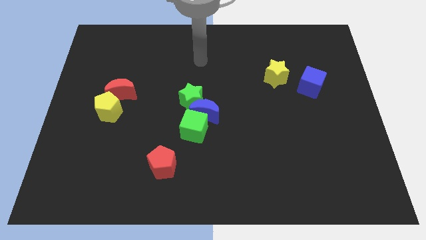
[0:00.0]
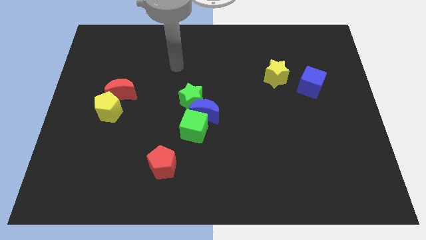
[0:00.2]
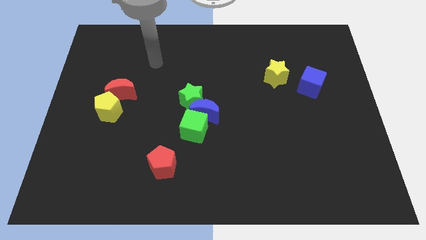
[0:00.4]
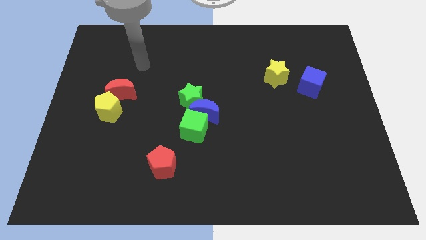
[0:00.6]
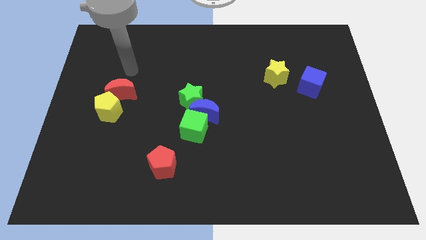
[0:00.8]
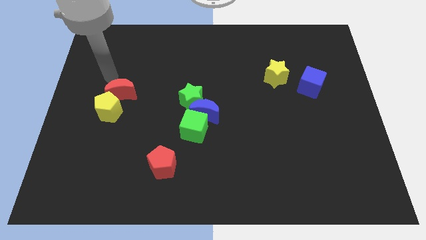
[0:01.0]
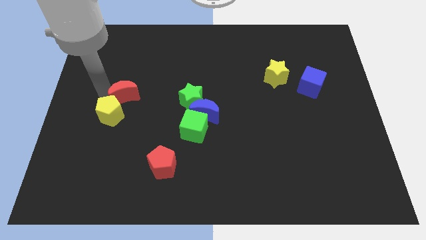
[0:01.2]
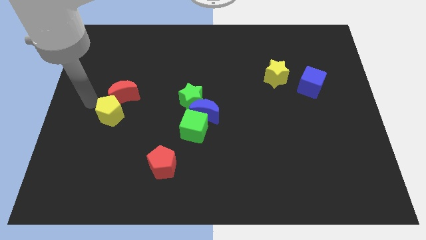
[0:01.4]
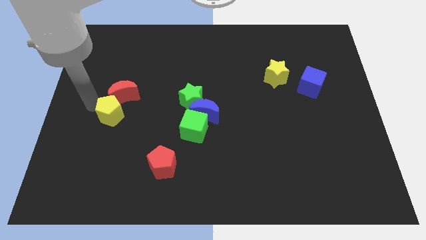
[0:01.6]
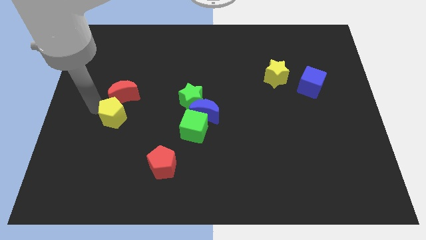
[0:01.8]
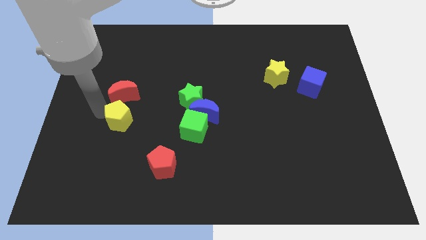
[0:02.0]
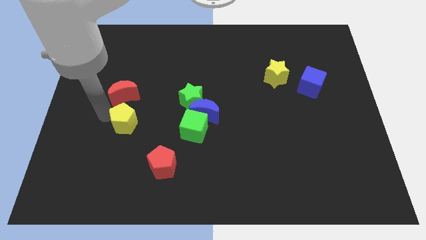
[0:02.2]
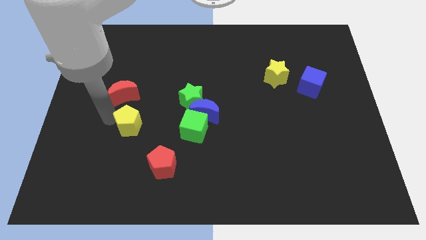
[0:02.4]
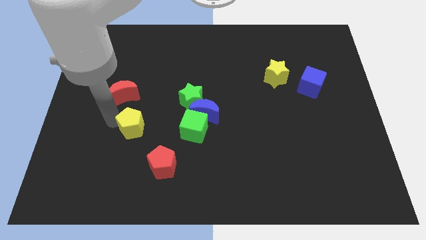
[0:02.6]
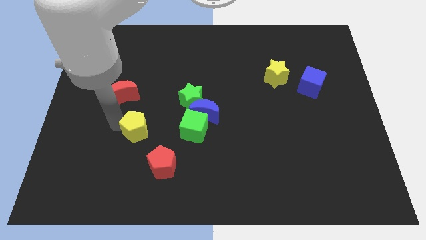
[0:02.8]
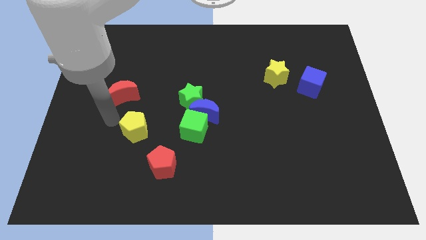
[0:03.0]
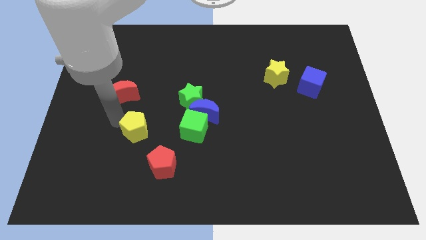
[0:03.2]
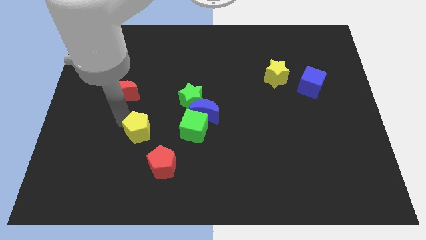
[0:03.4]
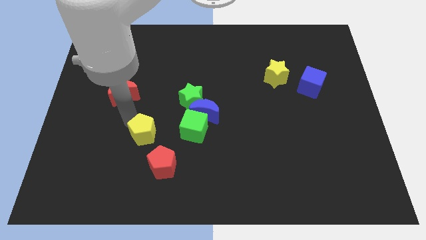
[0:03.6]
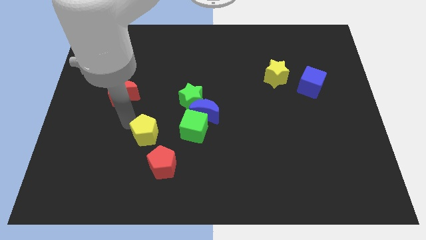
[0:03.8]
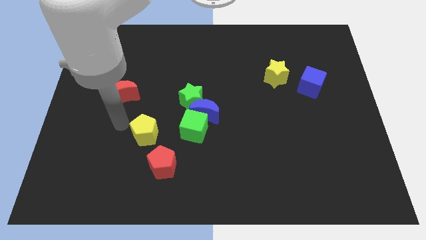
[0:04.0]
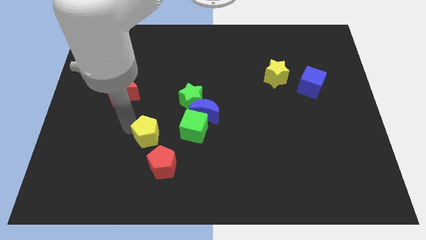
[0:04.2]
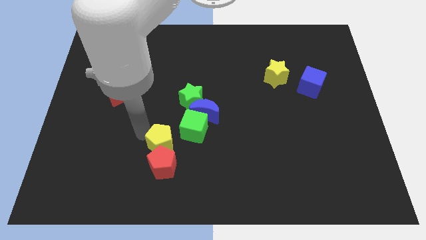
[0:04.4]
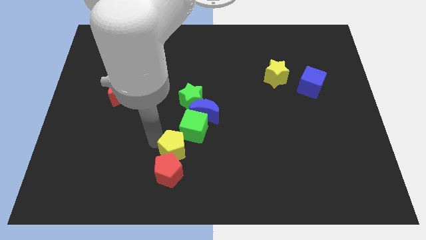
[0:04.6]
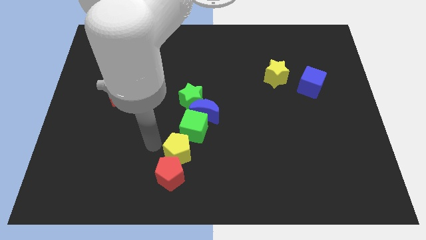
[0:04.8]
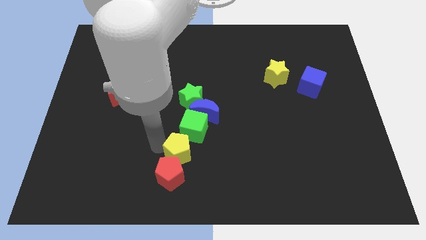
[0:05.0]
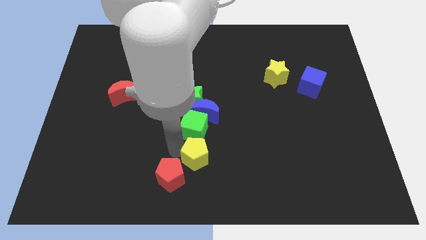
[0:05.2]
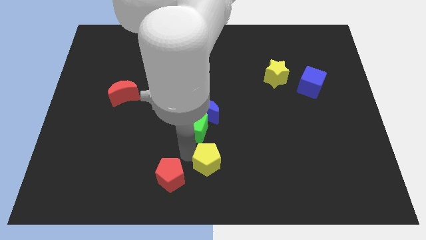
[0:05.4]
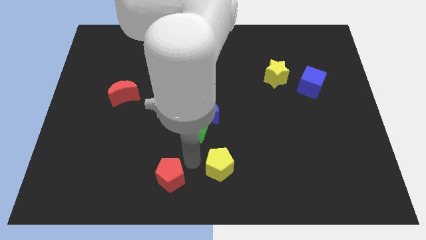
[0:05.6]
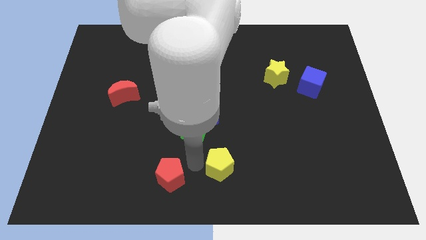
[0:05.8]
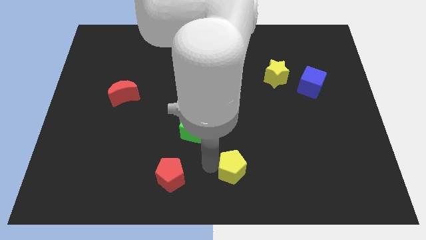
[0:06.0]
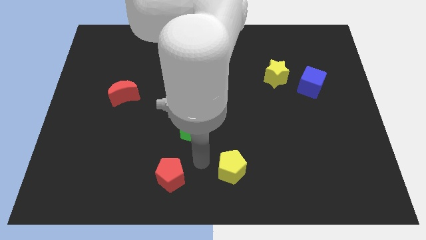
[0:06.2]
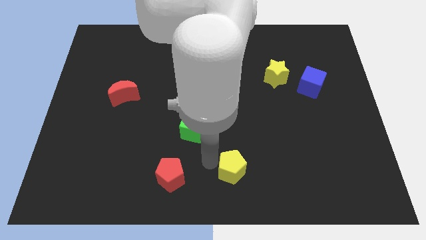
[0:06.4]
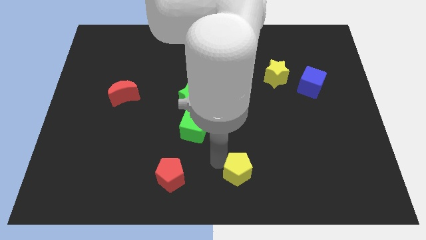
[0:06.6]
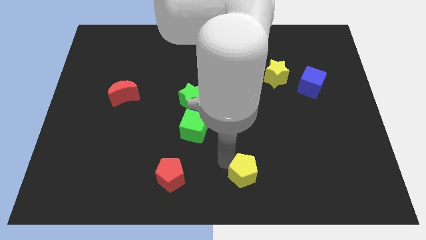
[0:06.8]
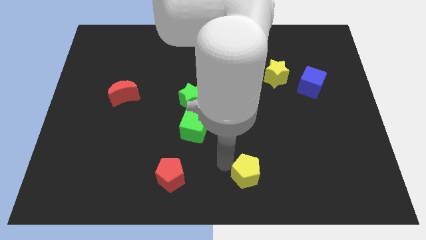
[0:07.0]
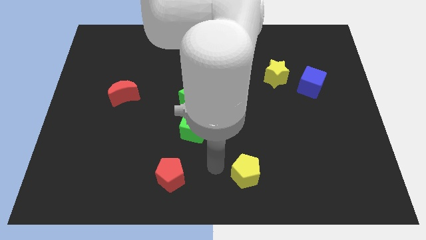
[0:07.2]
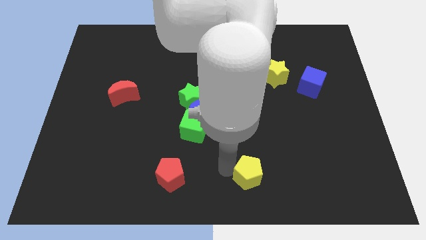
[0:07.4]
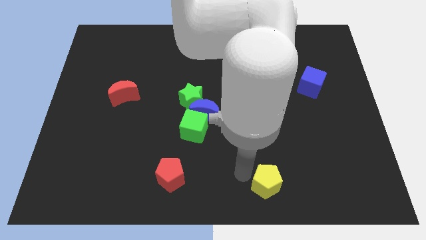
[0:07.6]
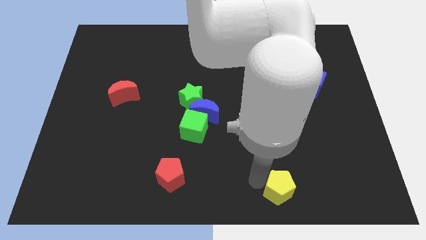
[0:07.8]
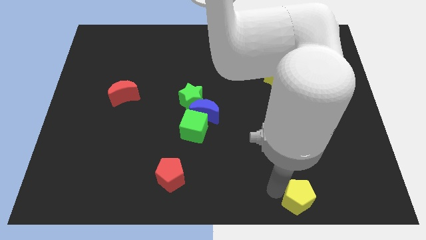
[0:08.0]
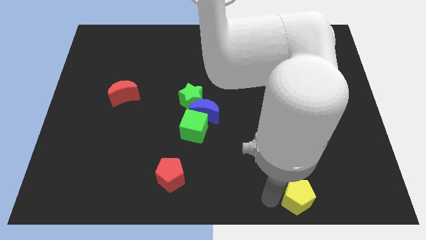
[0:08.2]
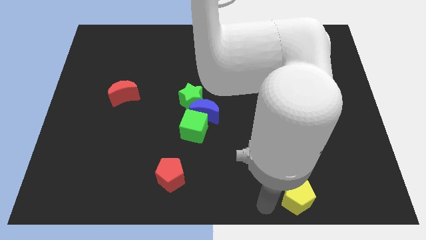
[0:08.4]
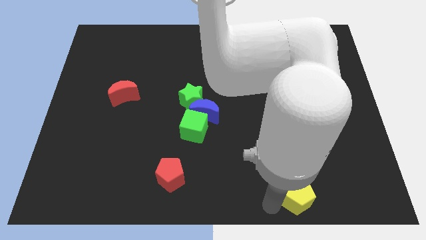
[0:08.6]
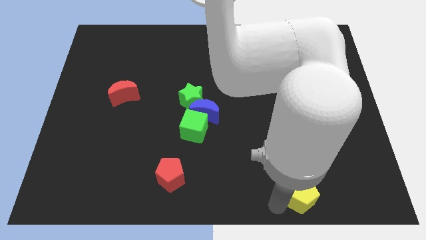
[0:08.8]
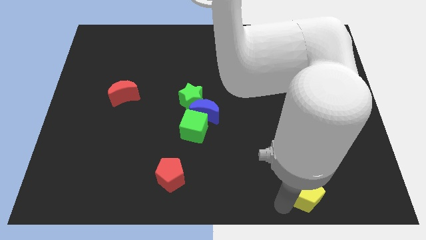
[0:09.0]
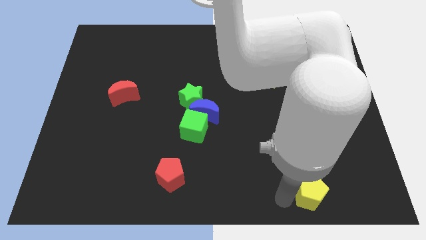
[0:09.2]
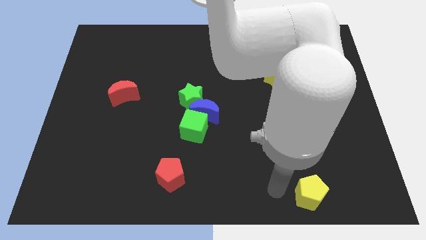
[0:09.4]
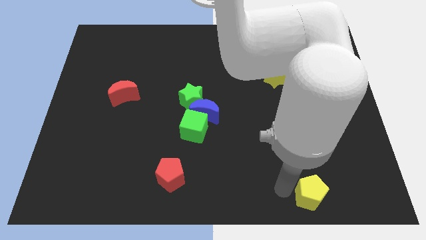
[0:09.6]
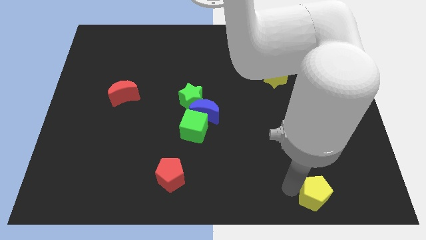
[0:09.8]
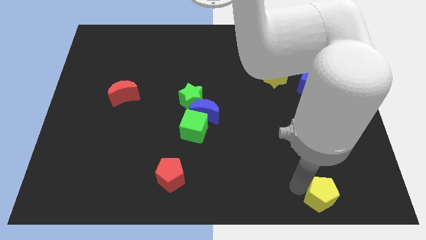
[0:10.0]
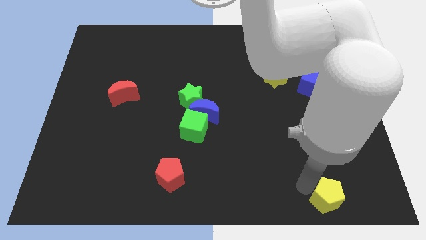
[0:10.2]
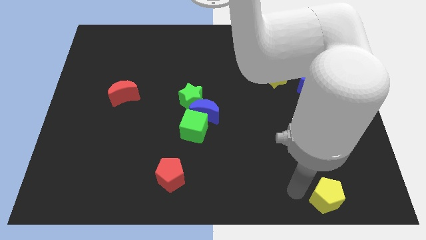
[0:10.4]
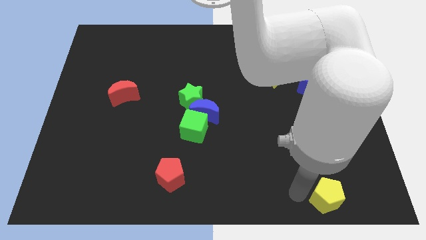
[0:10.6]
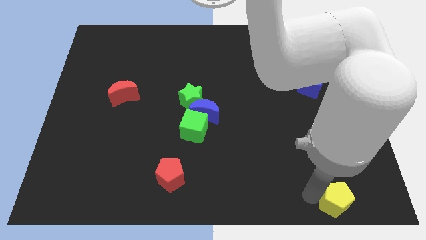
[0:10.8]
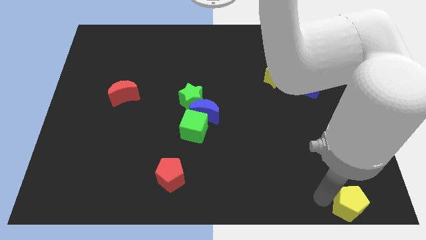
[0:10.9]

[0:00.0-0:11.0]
move the yellow pentagon to the bottom right of the board

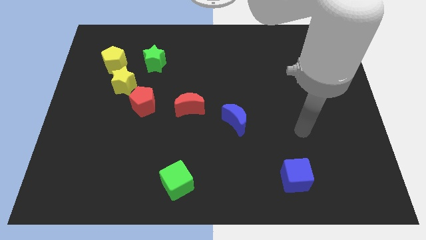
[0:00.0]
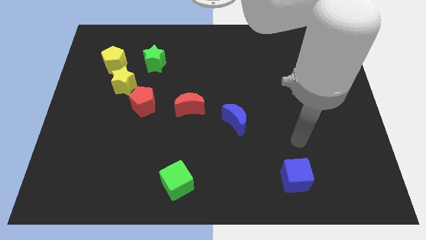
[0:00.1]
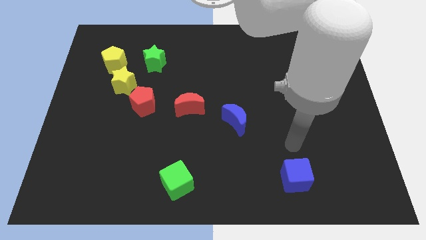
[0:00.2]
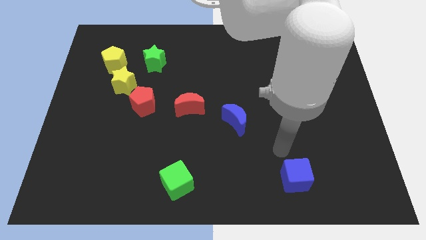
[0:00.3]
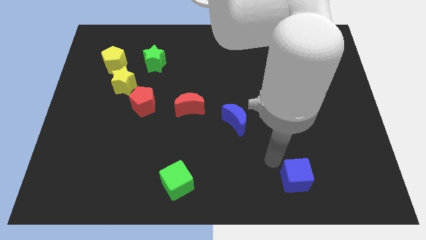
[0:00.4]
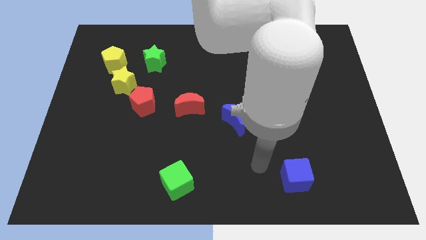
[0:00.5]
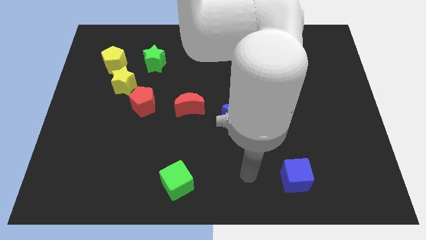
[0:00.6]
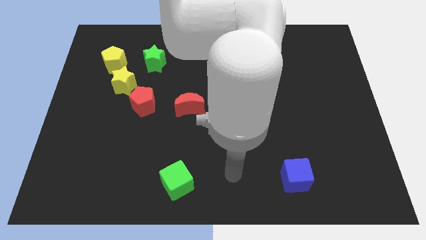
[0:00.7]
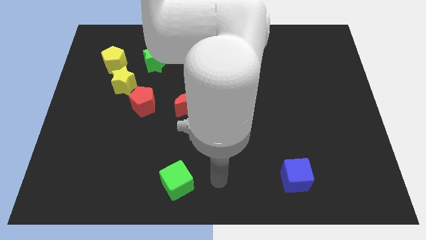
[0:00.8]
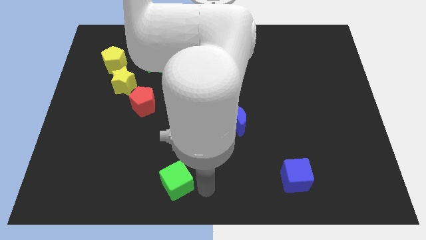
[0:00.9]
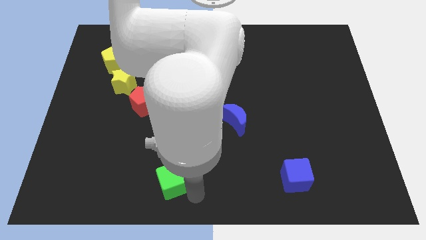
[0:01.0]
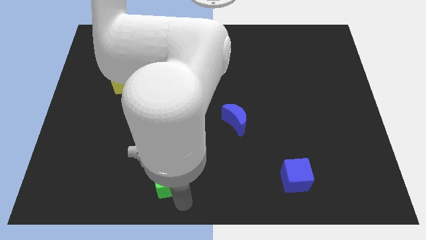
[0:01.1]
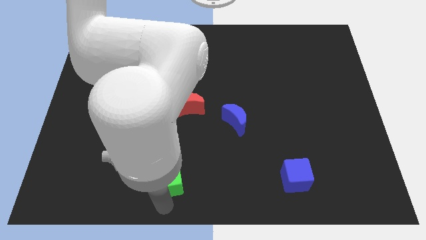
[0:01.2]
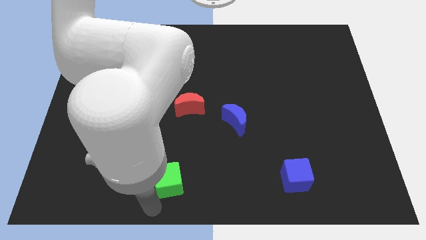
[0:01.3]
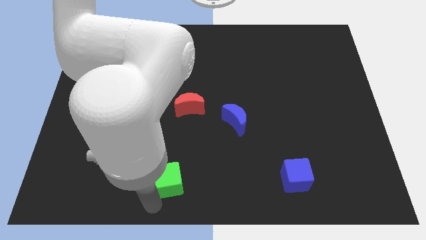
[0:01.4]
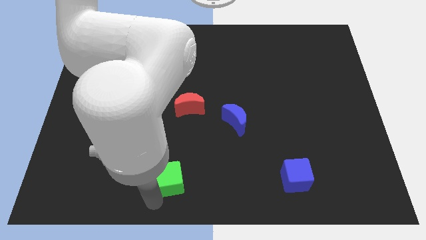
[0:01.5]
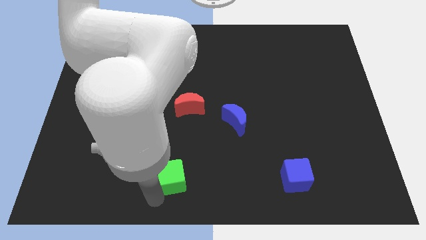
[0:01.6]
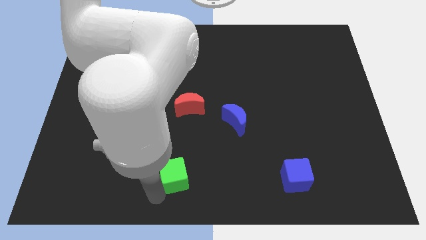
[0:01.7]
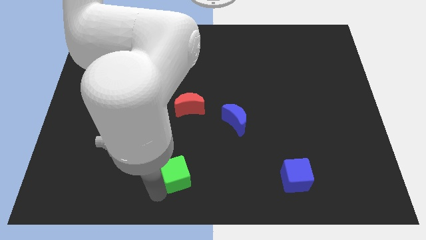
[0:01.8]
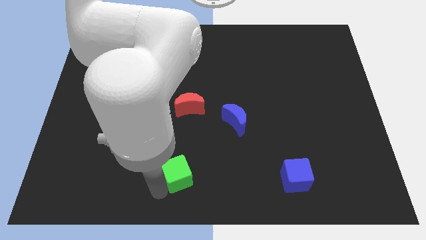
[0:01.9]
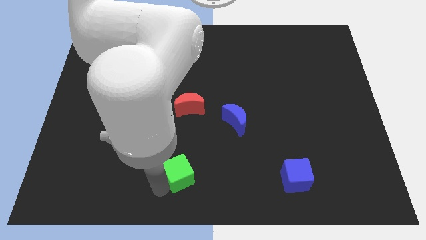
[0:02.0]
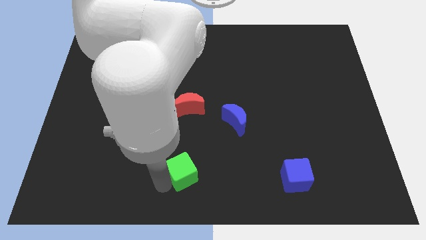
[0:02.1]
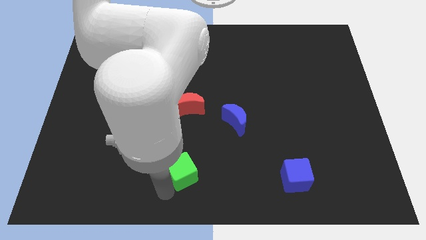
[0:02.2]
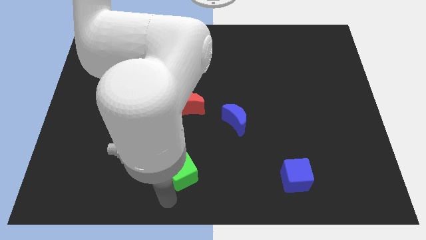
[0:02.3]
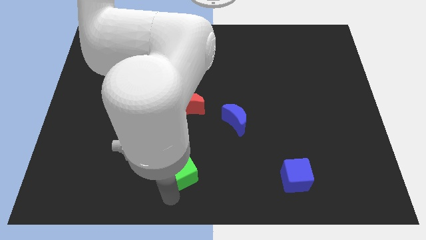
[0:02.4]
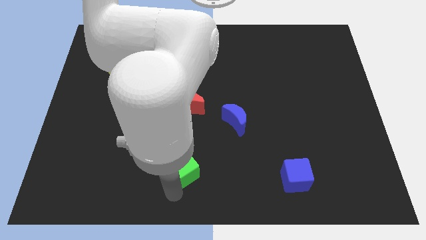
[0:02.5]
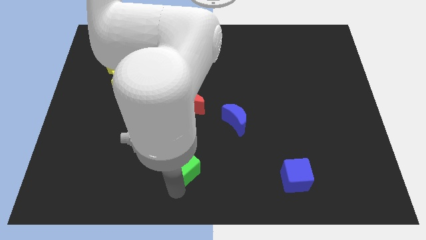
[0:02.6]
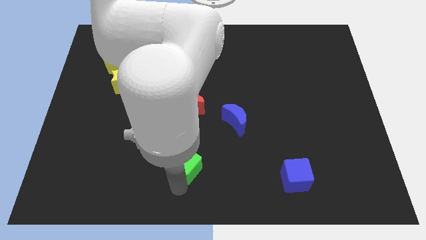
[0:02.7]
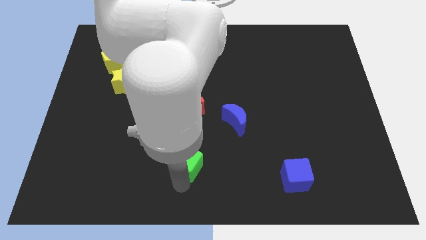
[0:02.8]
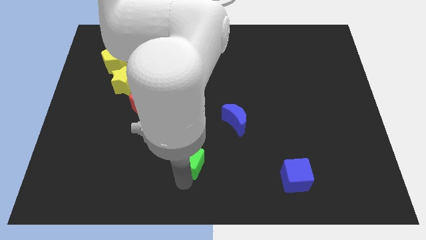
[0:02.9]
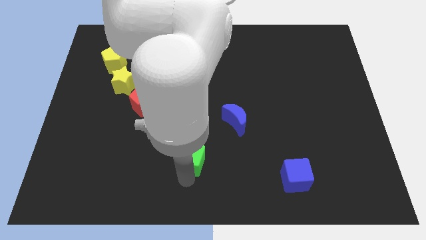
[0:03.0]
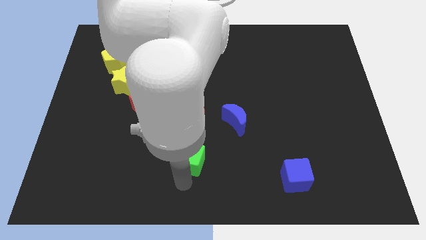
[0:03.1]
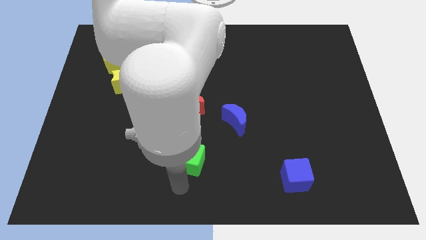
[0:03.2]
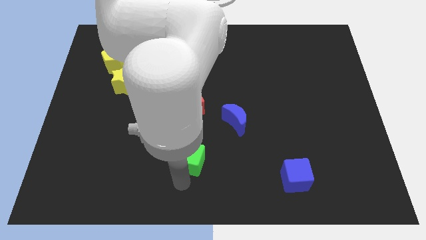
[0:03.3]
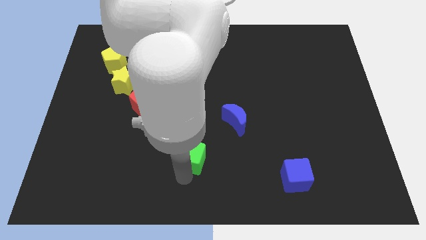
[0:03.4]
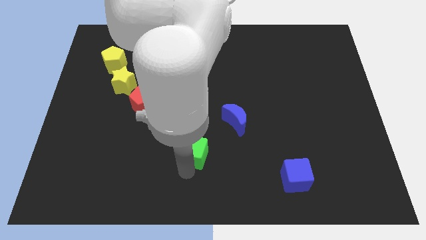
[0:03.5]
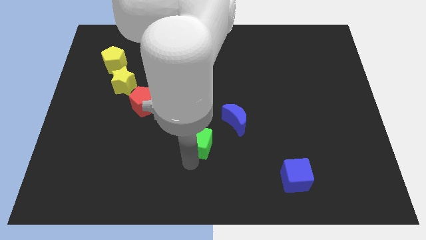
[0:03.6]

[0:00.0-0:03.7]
move the green cube to the center
